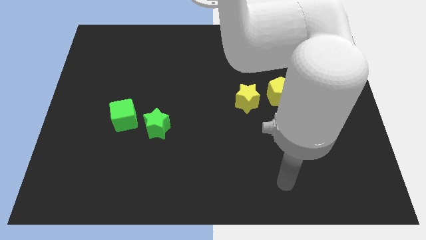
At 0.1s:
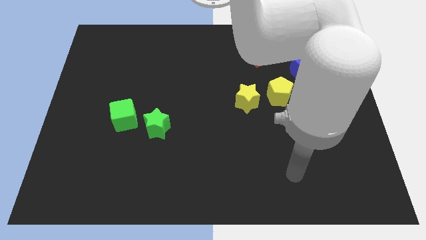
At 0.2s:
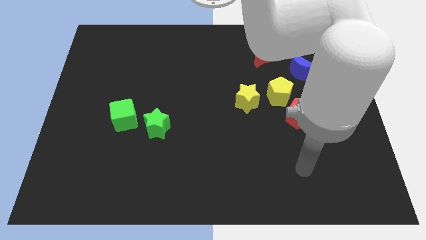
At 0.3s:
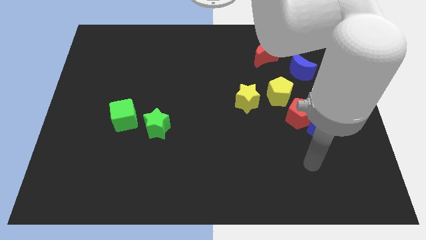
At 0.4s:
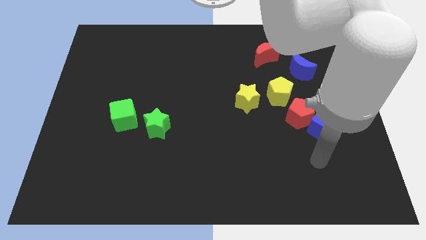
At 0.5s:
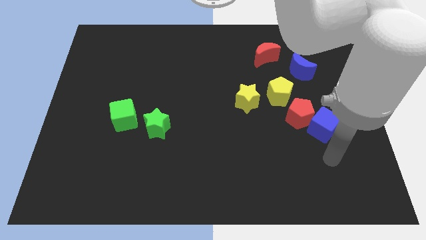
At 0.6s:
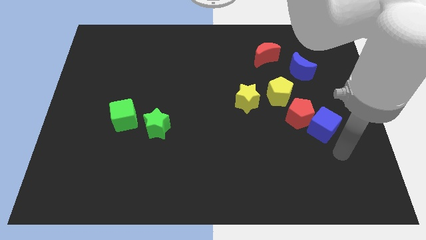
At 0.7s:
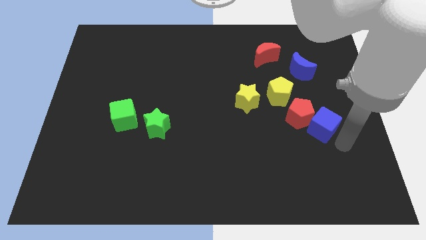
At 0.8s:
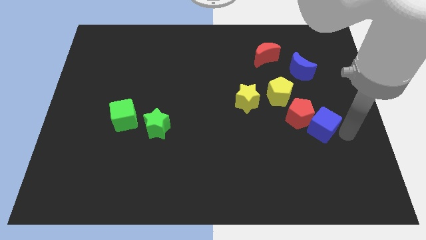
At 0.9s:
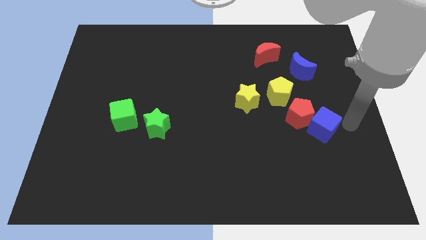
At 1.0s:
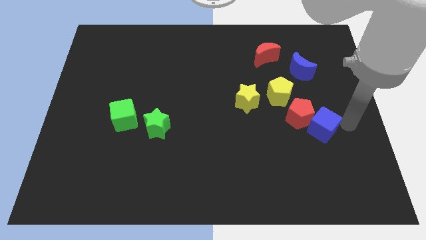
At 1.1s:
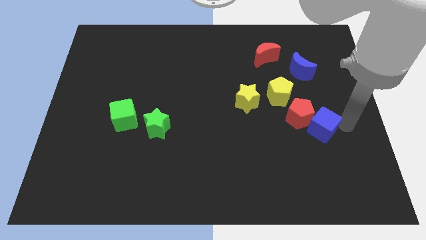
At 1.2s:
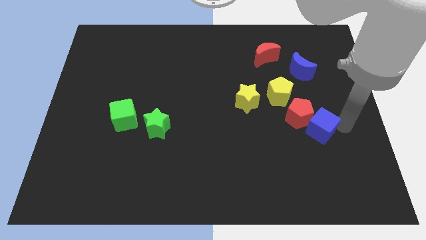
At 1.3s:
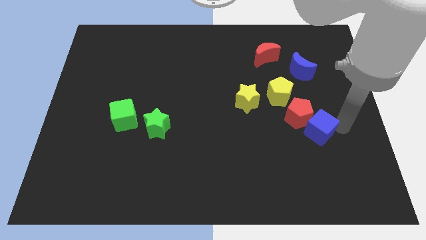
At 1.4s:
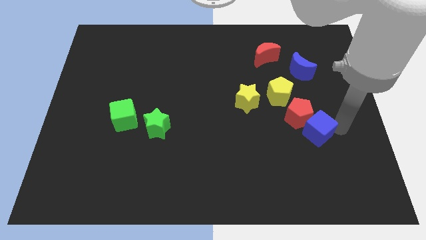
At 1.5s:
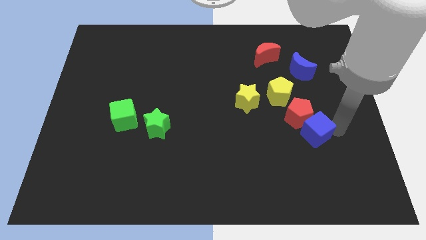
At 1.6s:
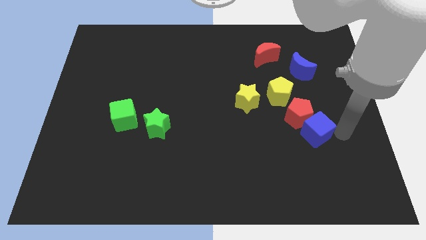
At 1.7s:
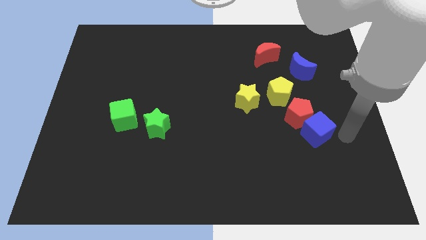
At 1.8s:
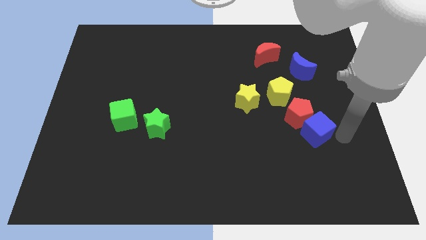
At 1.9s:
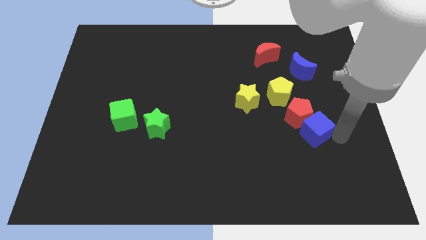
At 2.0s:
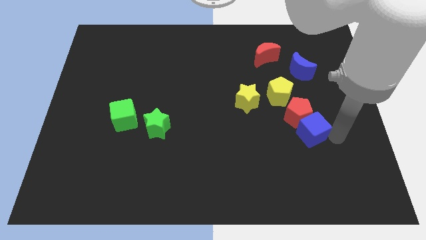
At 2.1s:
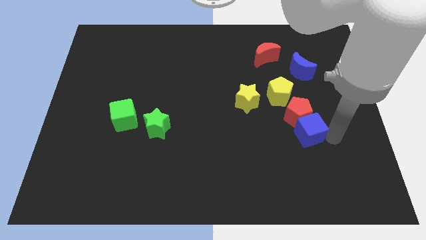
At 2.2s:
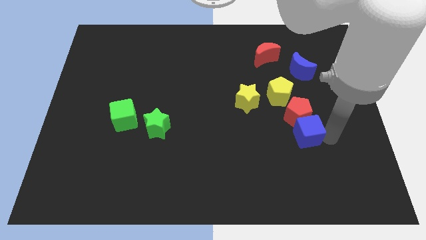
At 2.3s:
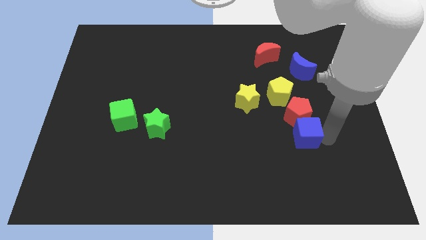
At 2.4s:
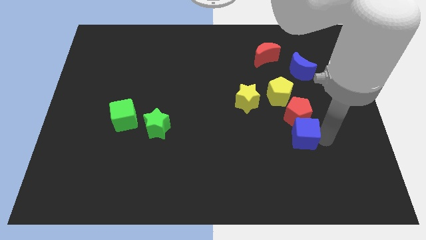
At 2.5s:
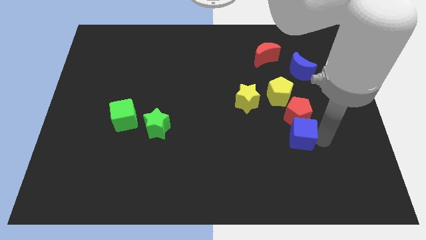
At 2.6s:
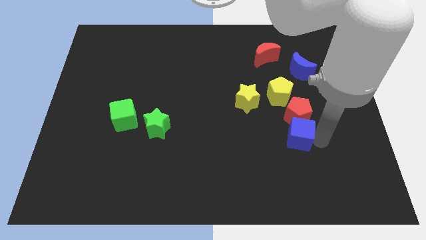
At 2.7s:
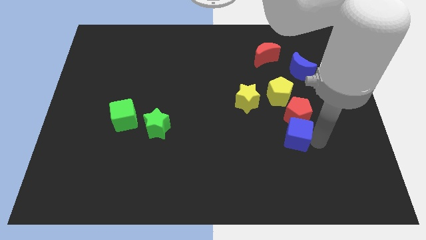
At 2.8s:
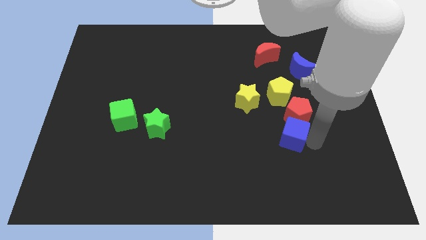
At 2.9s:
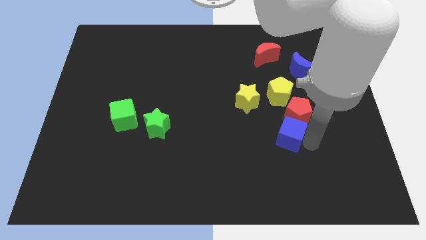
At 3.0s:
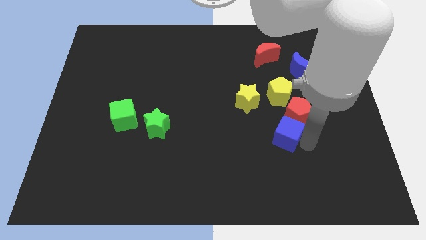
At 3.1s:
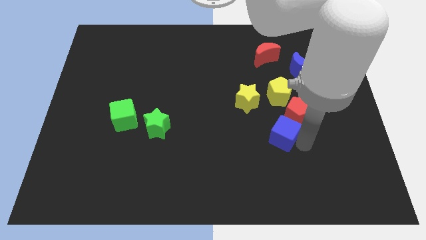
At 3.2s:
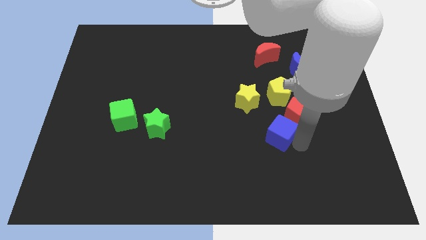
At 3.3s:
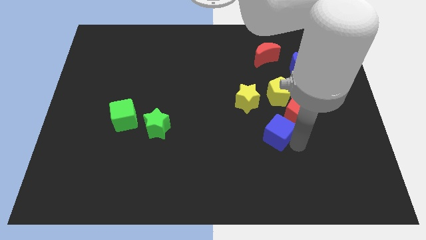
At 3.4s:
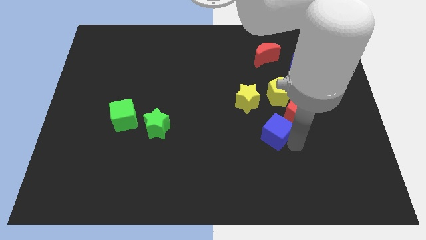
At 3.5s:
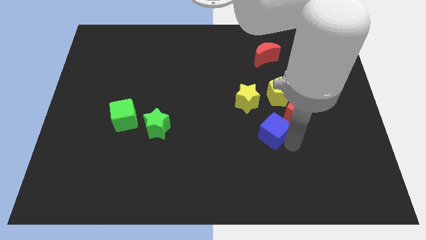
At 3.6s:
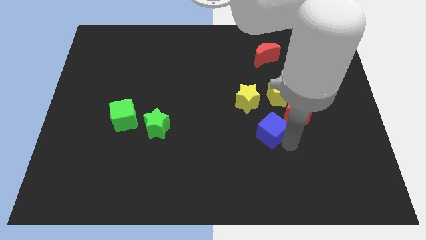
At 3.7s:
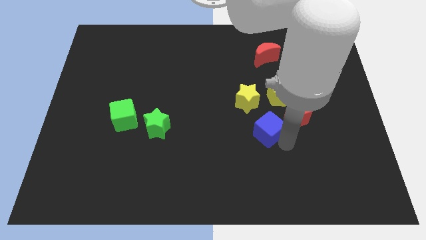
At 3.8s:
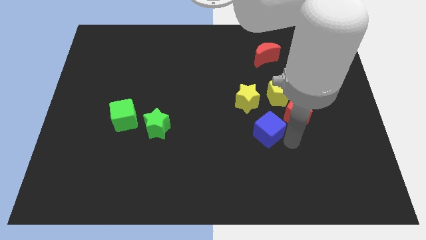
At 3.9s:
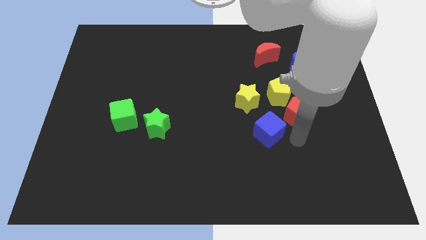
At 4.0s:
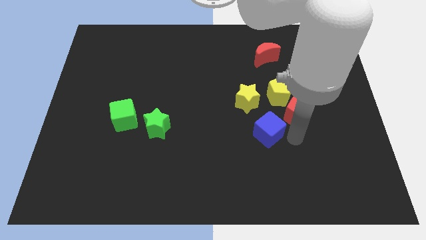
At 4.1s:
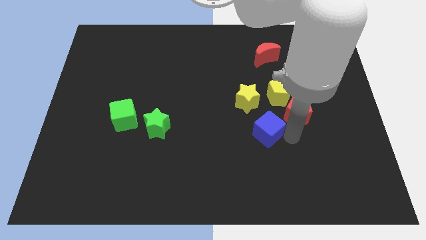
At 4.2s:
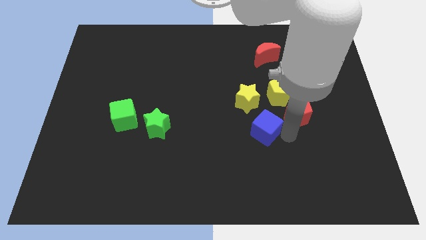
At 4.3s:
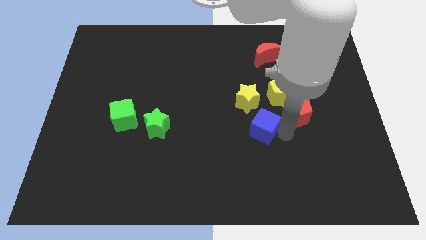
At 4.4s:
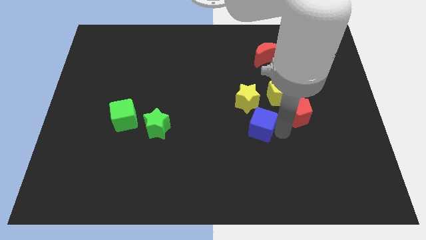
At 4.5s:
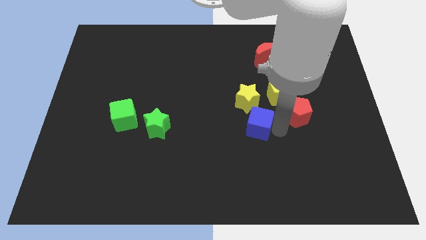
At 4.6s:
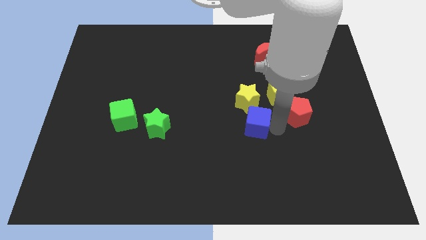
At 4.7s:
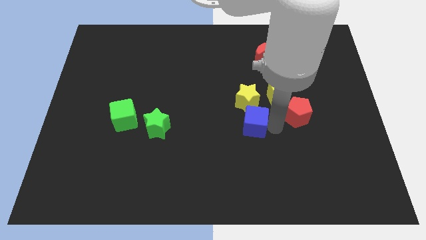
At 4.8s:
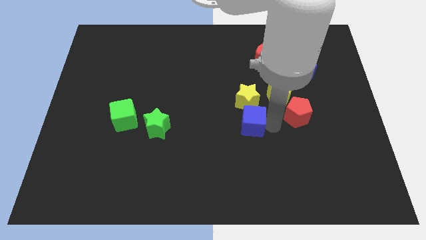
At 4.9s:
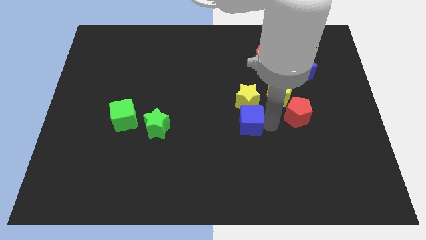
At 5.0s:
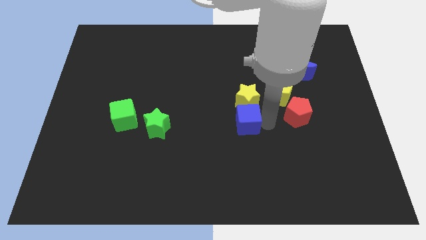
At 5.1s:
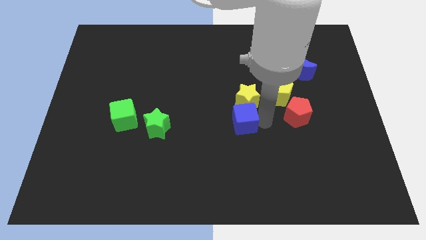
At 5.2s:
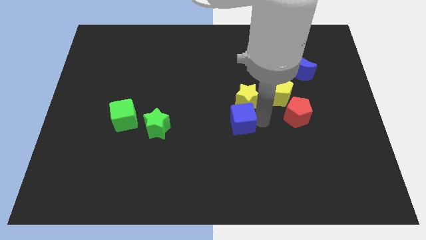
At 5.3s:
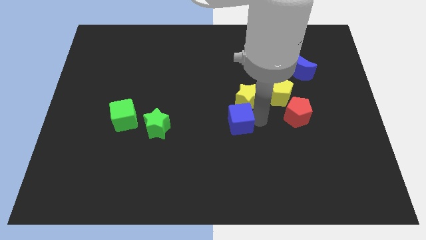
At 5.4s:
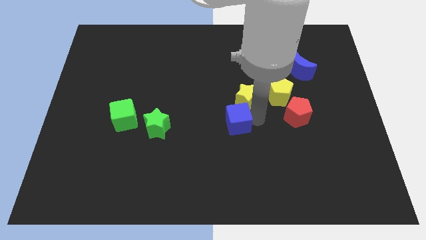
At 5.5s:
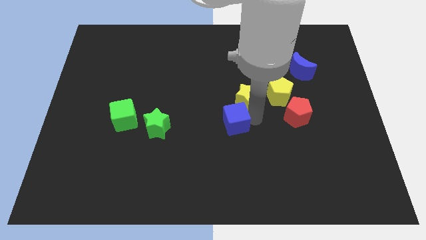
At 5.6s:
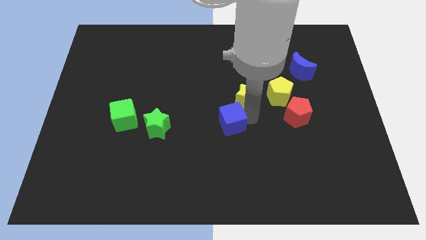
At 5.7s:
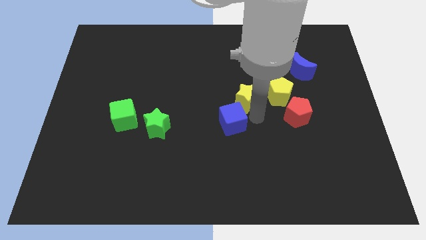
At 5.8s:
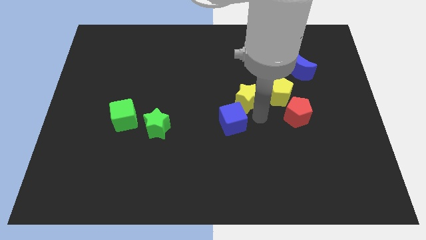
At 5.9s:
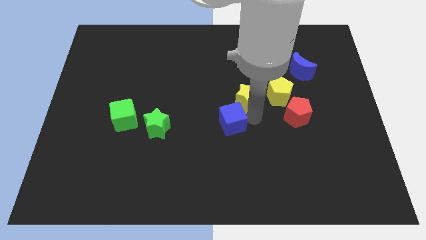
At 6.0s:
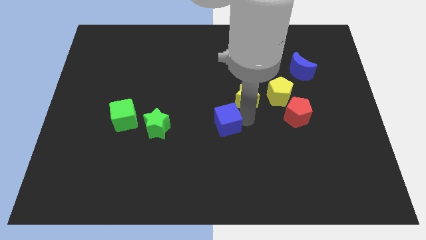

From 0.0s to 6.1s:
move the blue cube to the right side of the green star

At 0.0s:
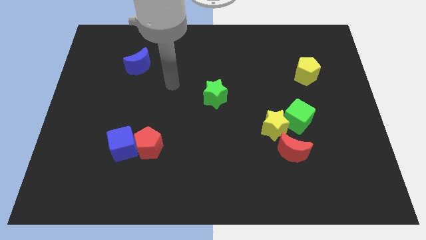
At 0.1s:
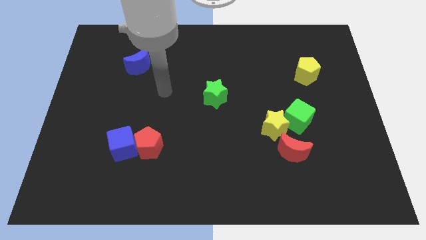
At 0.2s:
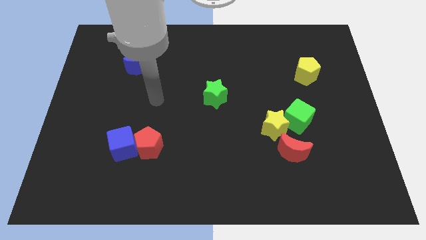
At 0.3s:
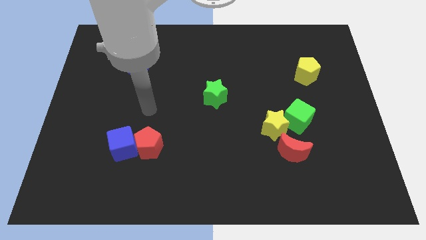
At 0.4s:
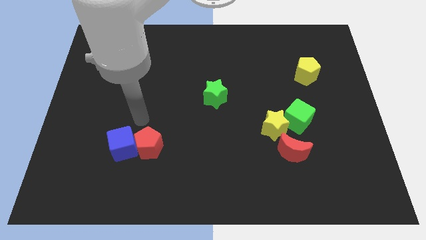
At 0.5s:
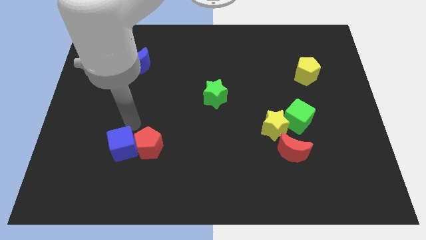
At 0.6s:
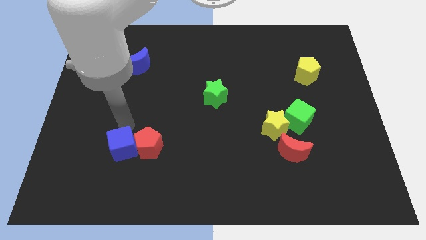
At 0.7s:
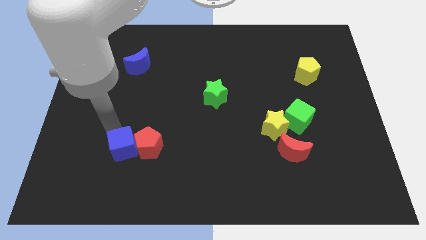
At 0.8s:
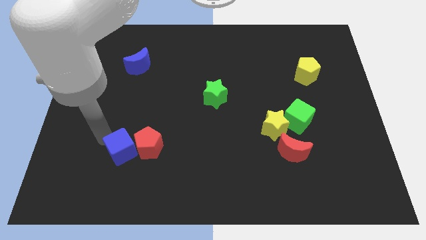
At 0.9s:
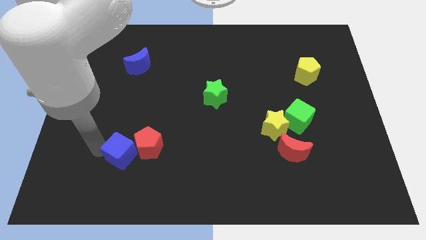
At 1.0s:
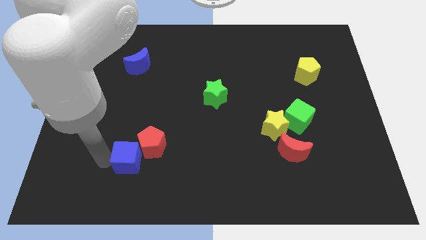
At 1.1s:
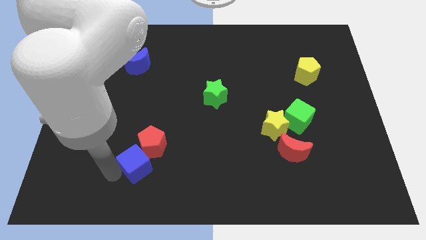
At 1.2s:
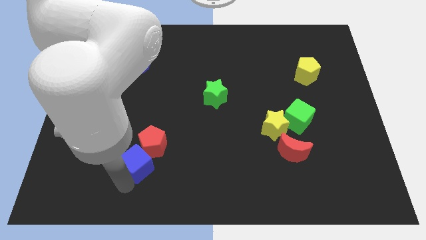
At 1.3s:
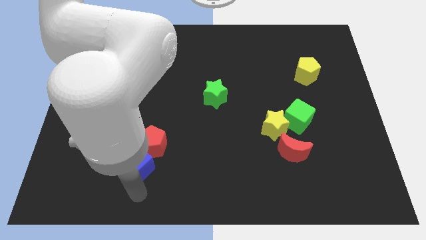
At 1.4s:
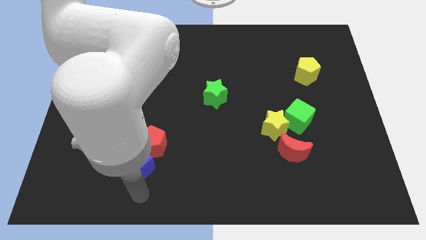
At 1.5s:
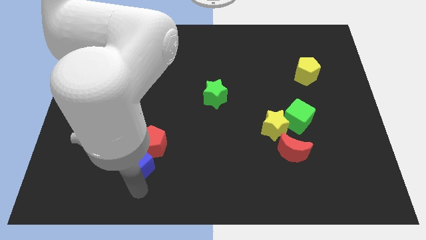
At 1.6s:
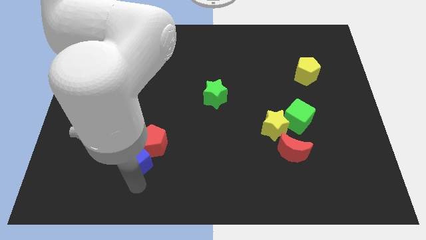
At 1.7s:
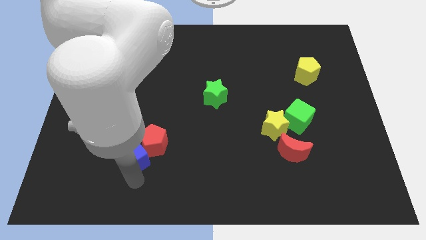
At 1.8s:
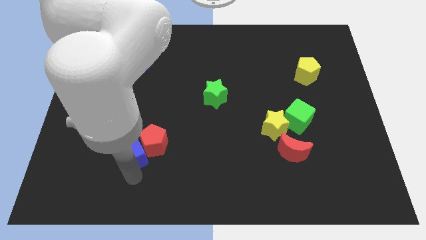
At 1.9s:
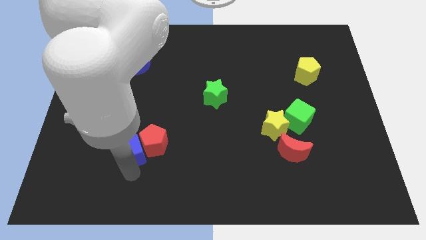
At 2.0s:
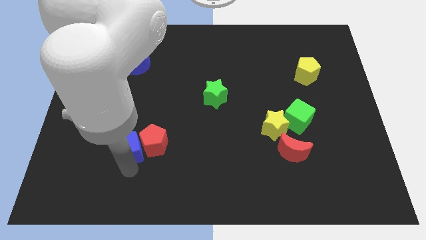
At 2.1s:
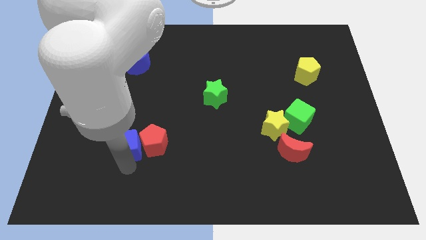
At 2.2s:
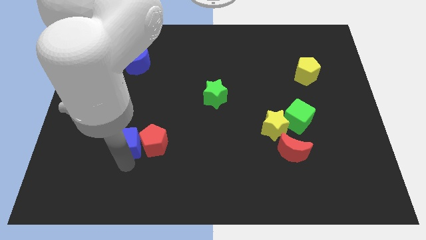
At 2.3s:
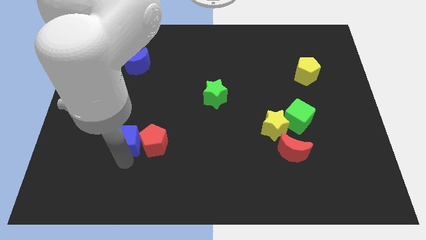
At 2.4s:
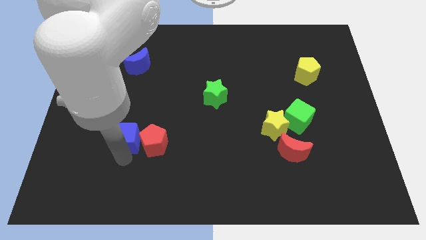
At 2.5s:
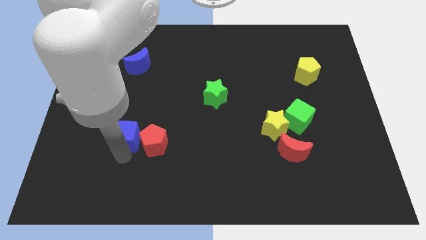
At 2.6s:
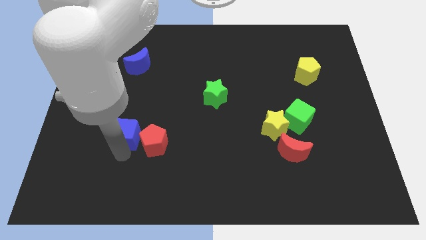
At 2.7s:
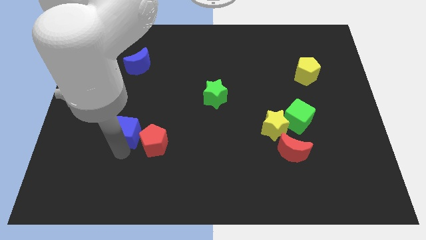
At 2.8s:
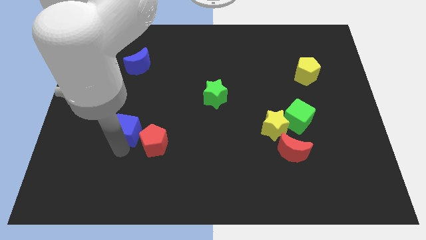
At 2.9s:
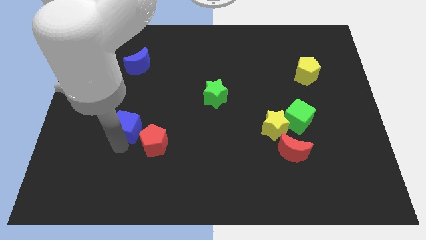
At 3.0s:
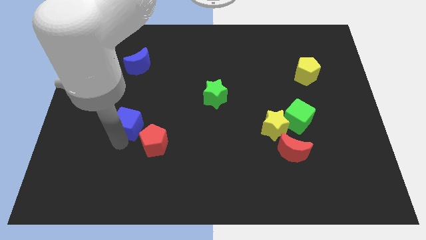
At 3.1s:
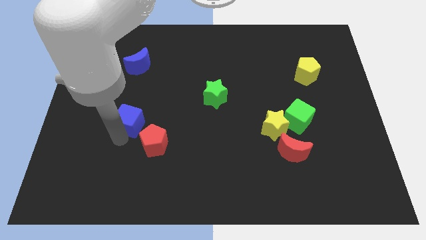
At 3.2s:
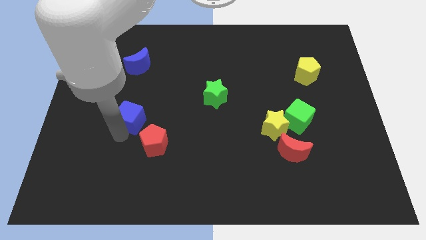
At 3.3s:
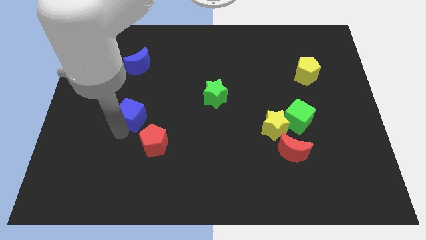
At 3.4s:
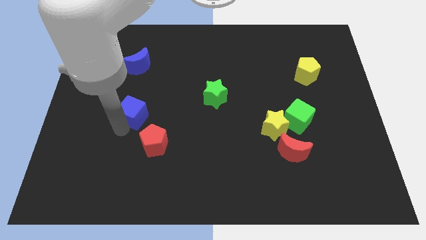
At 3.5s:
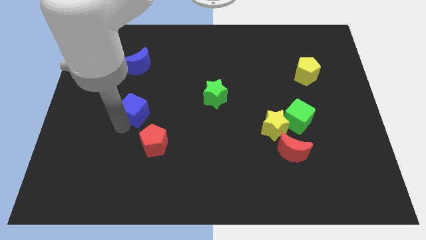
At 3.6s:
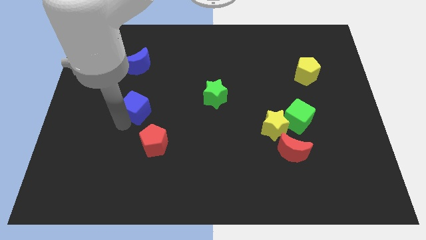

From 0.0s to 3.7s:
push the blue cube to the top side of the red pentagon
